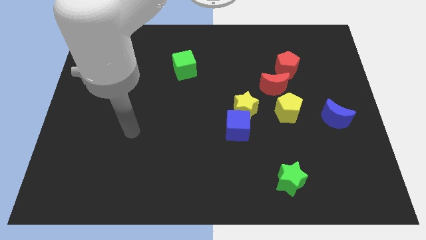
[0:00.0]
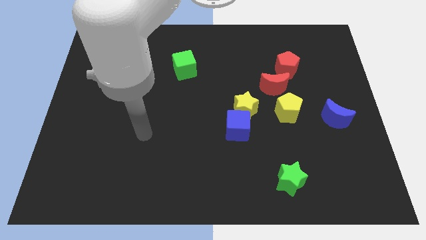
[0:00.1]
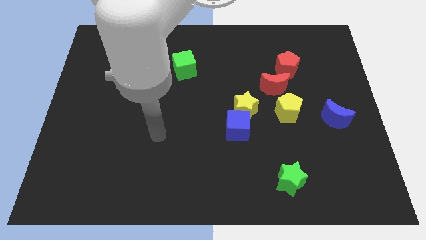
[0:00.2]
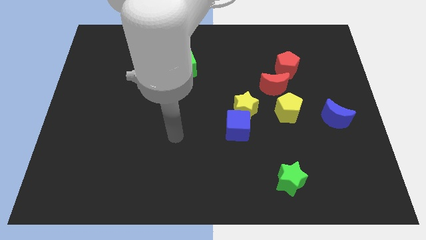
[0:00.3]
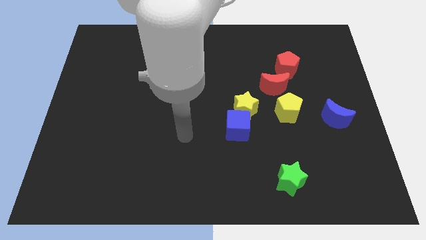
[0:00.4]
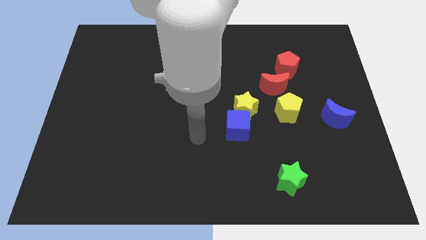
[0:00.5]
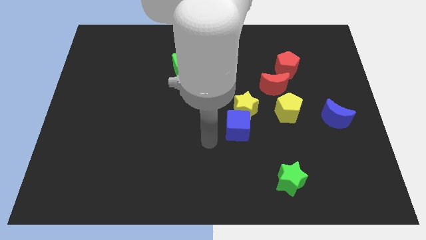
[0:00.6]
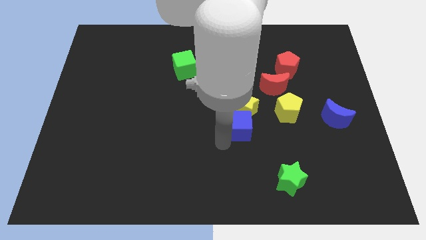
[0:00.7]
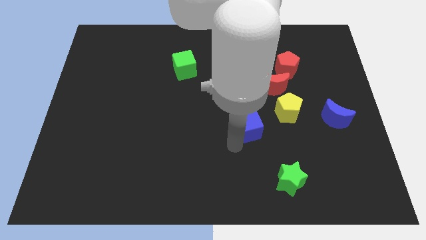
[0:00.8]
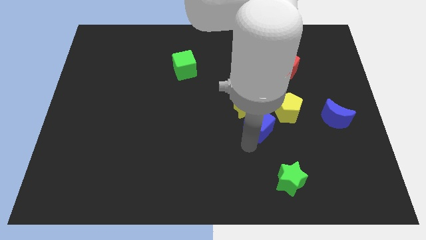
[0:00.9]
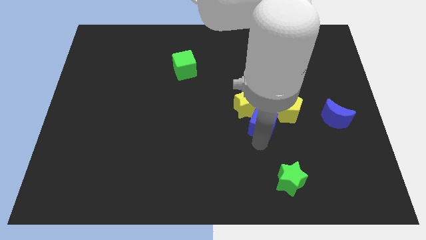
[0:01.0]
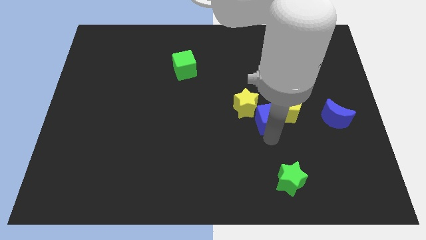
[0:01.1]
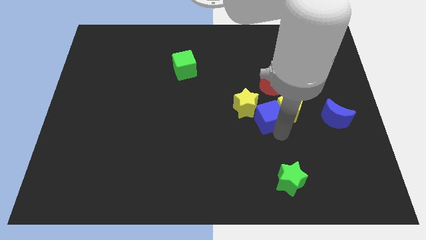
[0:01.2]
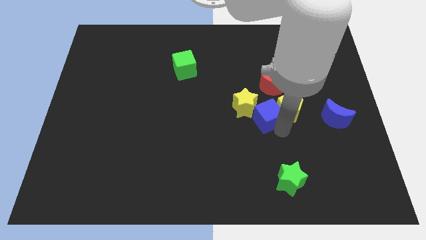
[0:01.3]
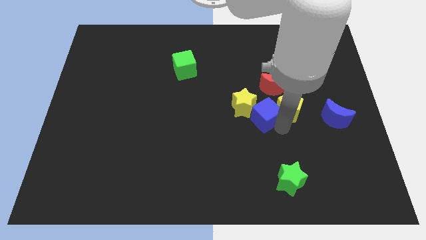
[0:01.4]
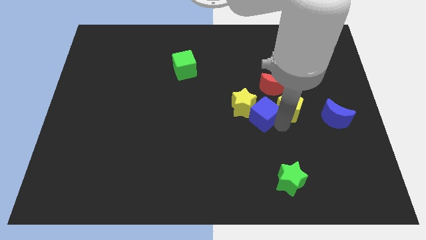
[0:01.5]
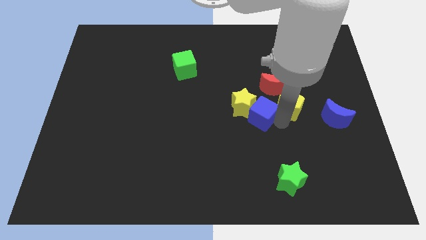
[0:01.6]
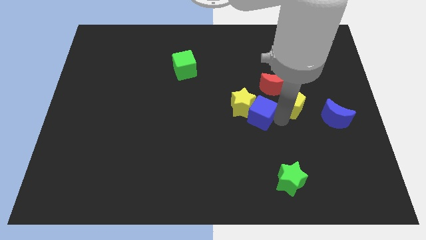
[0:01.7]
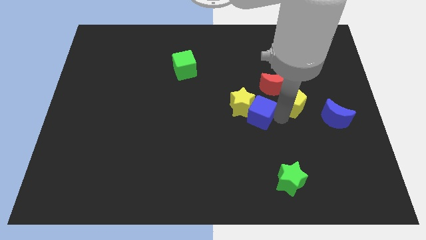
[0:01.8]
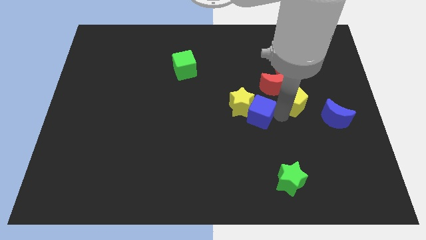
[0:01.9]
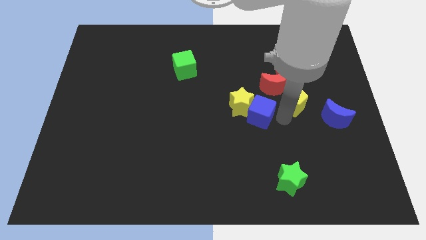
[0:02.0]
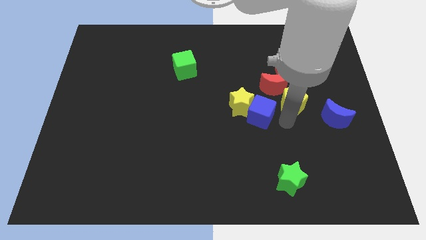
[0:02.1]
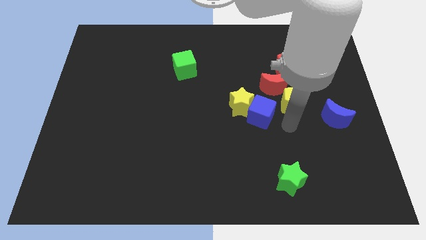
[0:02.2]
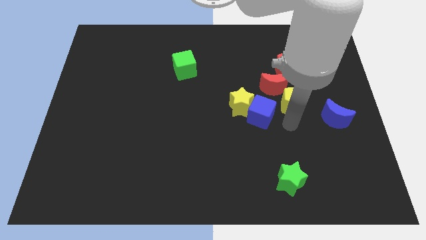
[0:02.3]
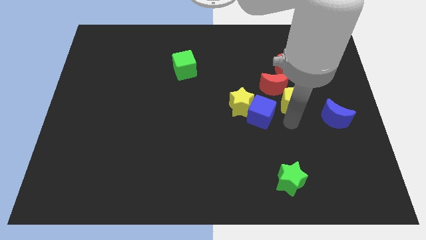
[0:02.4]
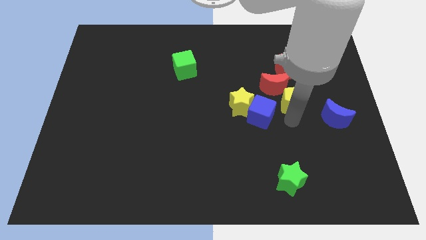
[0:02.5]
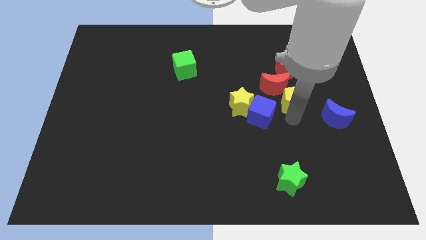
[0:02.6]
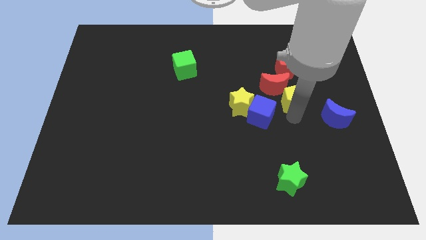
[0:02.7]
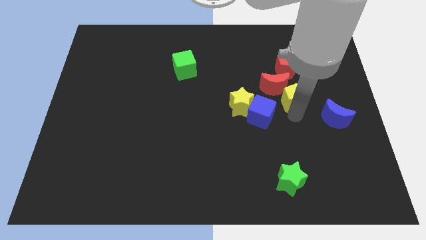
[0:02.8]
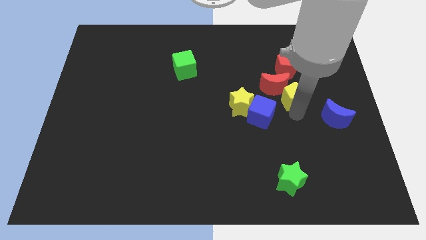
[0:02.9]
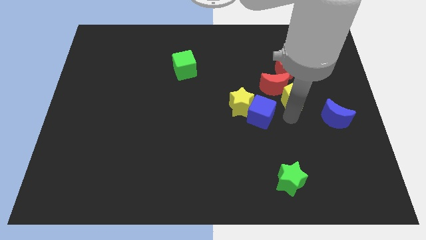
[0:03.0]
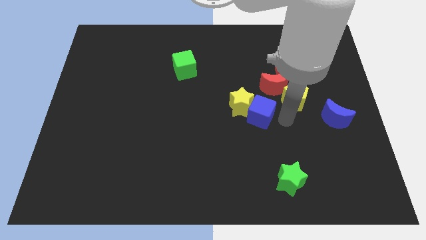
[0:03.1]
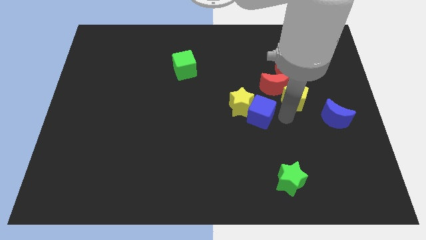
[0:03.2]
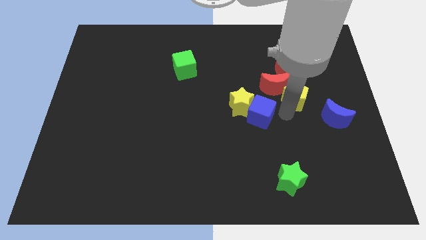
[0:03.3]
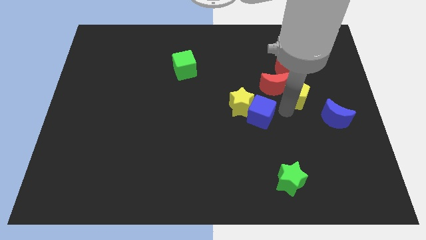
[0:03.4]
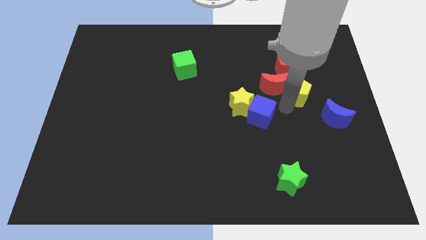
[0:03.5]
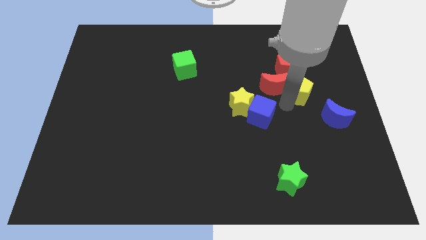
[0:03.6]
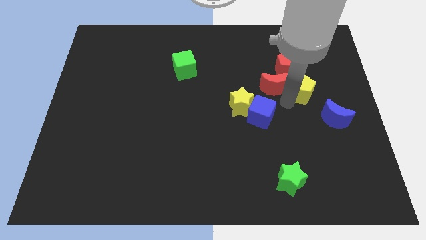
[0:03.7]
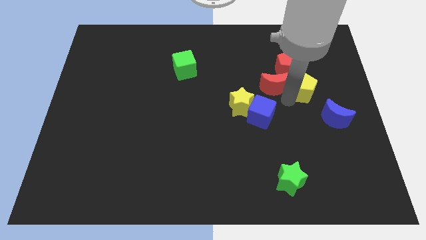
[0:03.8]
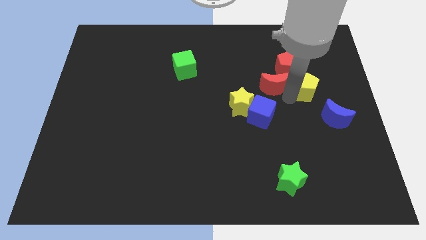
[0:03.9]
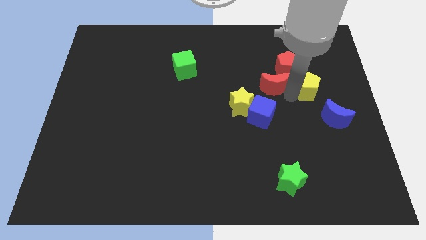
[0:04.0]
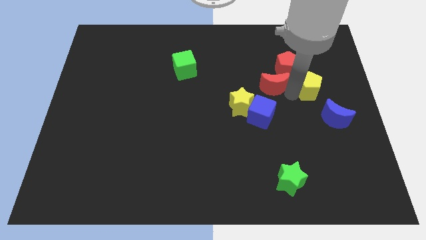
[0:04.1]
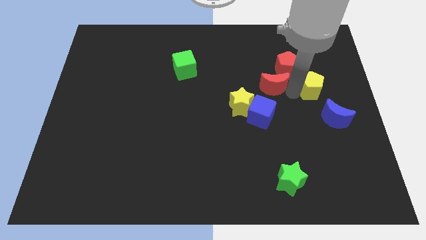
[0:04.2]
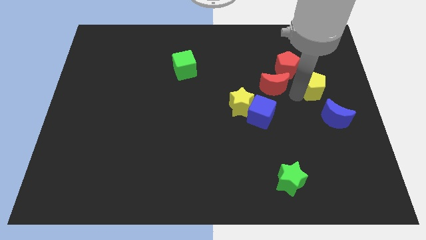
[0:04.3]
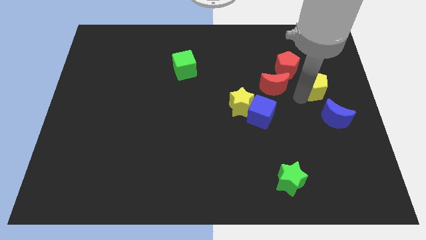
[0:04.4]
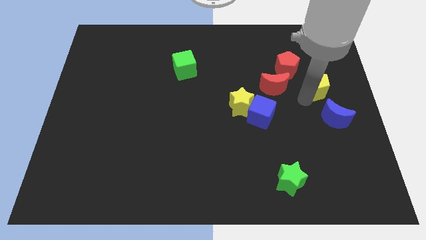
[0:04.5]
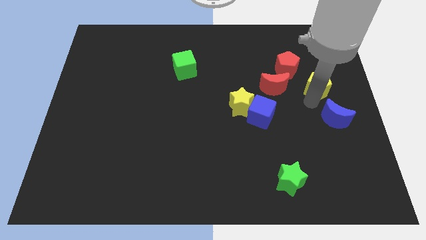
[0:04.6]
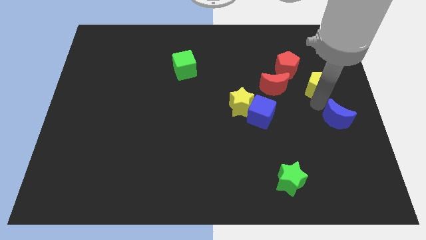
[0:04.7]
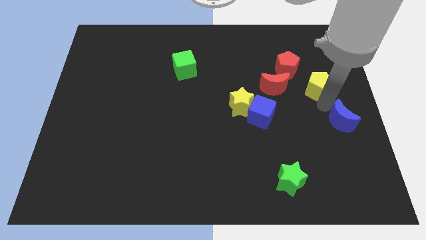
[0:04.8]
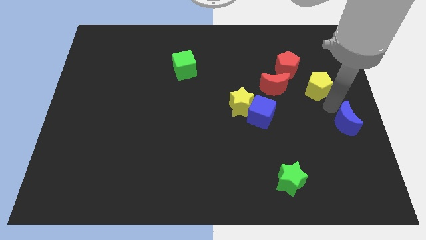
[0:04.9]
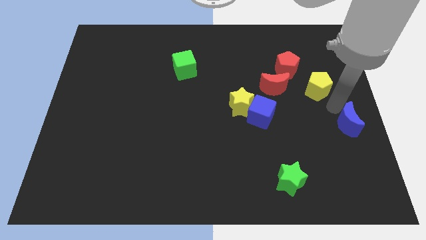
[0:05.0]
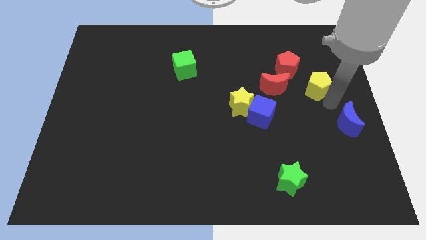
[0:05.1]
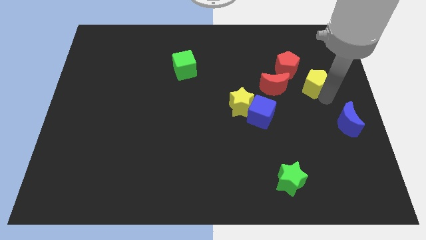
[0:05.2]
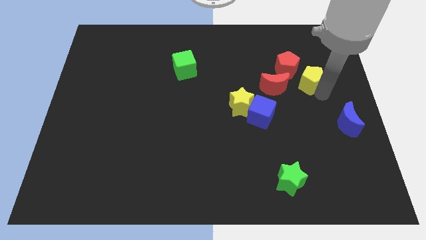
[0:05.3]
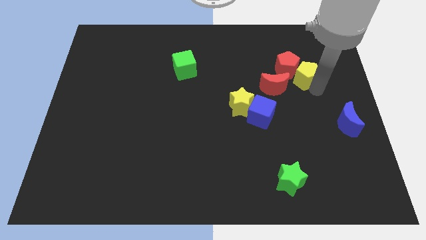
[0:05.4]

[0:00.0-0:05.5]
put the yellow pentagon to the top right of the red moon

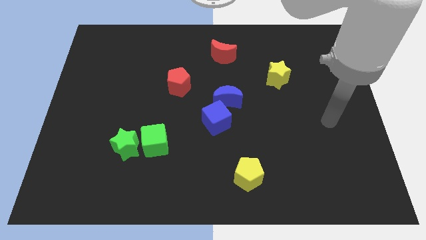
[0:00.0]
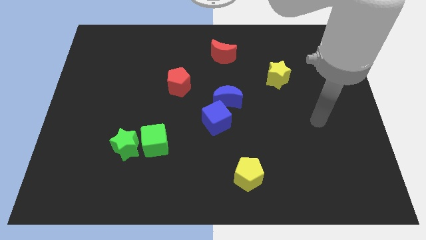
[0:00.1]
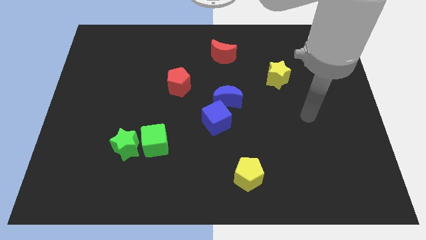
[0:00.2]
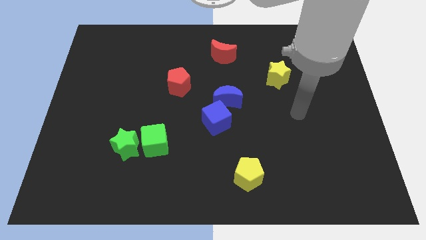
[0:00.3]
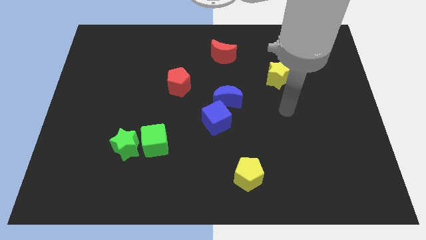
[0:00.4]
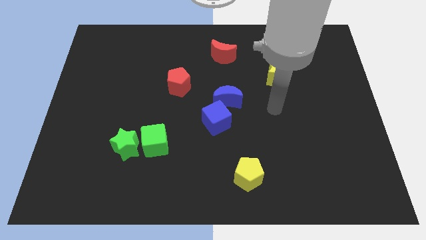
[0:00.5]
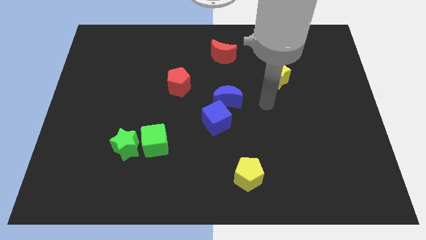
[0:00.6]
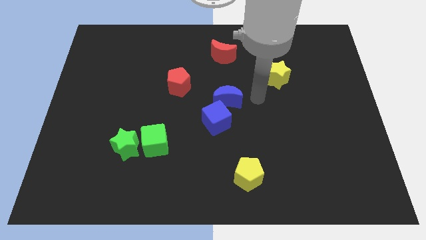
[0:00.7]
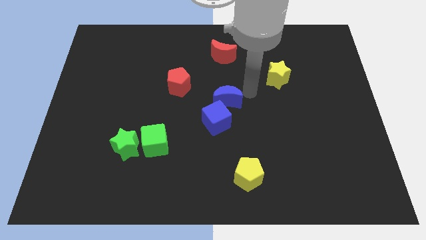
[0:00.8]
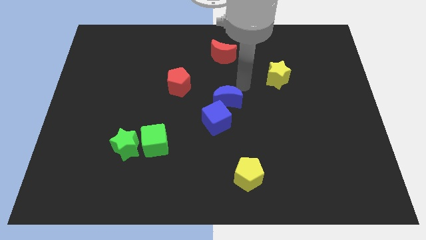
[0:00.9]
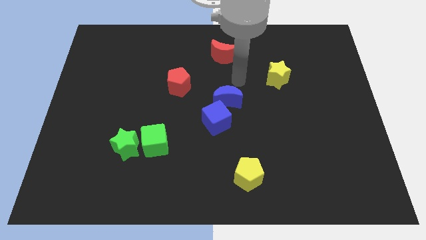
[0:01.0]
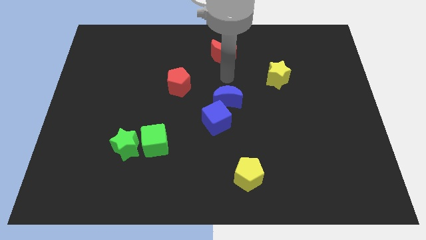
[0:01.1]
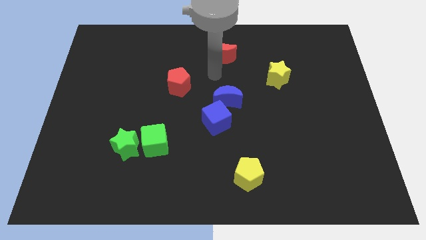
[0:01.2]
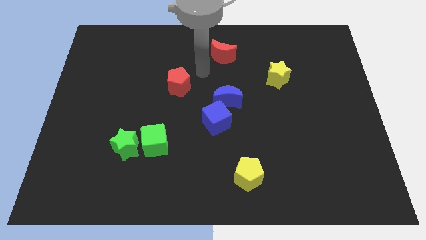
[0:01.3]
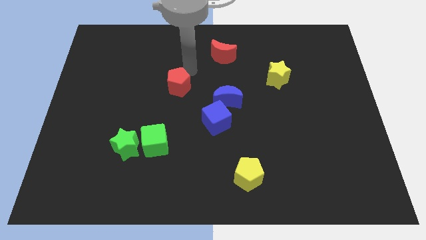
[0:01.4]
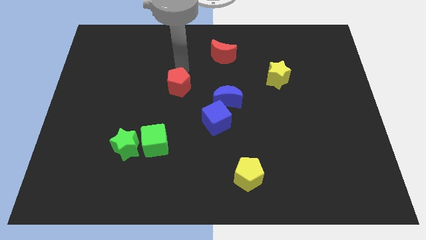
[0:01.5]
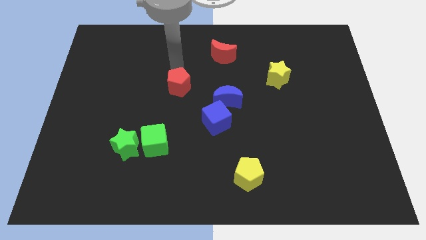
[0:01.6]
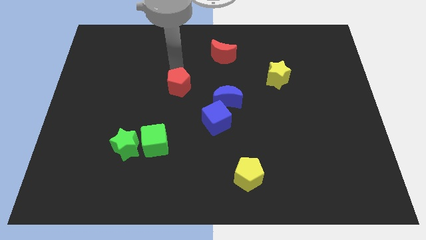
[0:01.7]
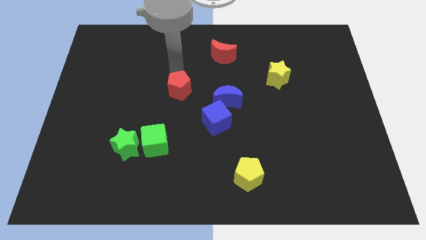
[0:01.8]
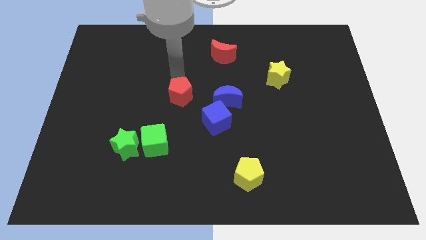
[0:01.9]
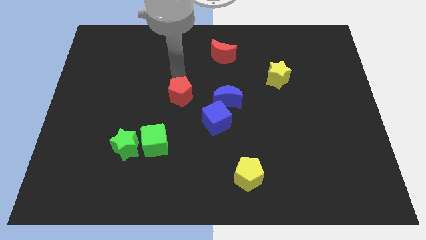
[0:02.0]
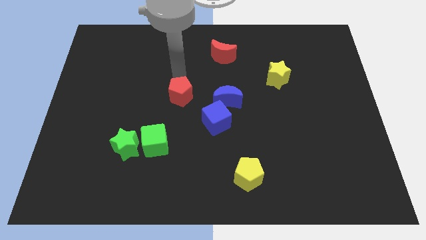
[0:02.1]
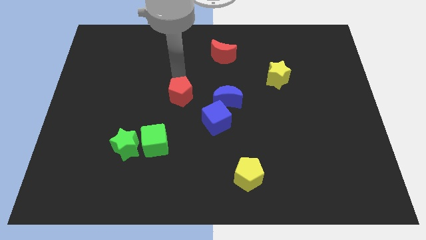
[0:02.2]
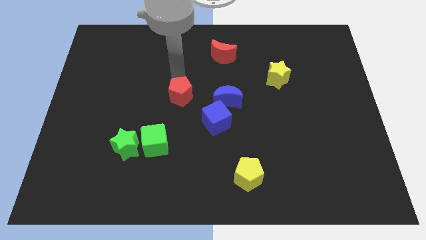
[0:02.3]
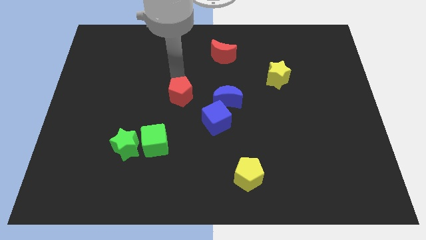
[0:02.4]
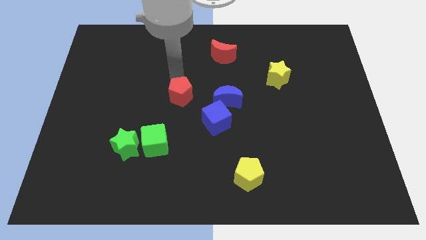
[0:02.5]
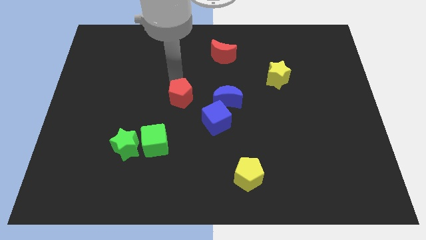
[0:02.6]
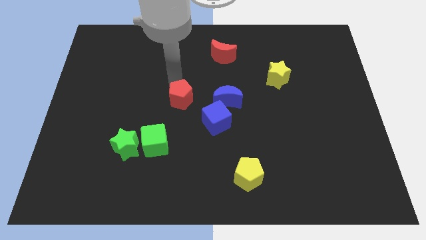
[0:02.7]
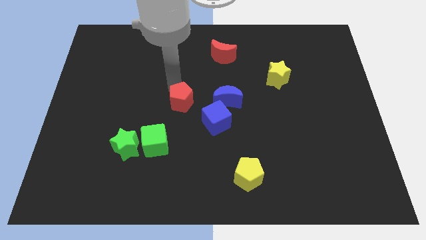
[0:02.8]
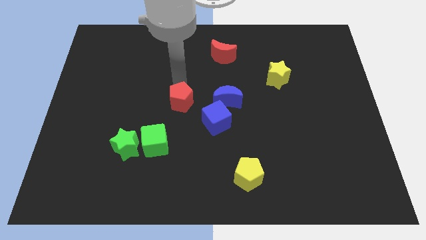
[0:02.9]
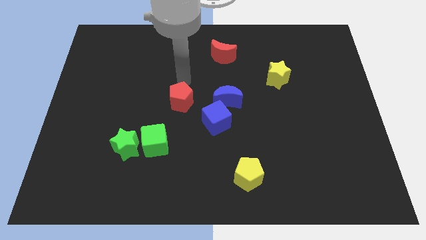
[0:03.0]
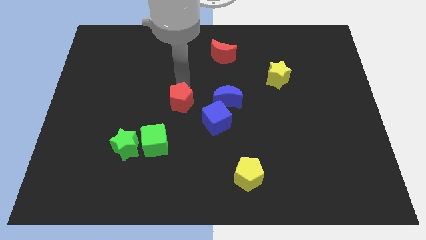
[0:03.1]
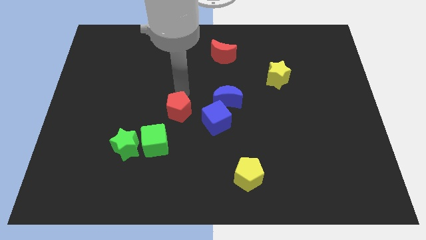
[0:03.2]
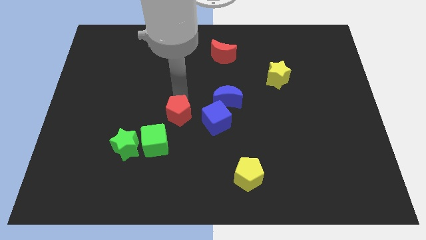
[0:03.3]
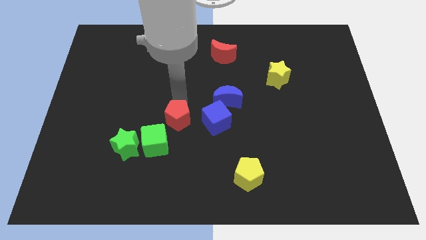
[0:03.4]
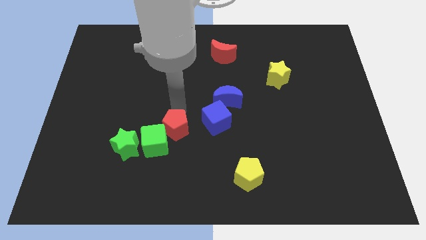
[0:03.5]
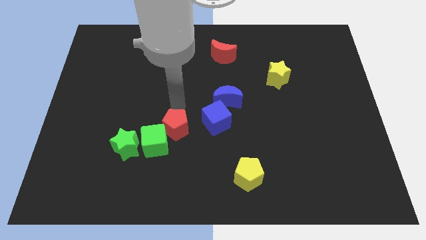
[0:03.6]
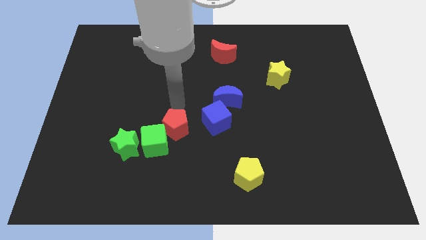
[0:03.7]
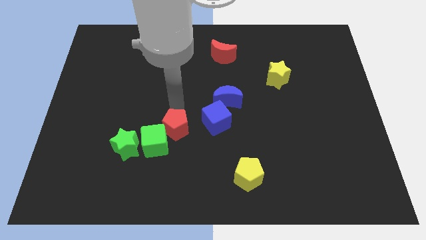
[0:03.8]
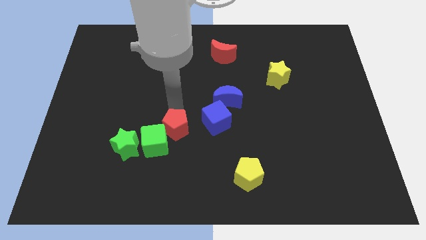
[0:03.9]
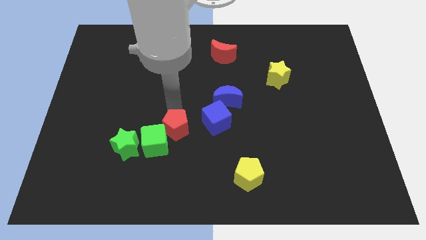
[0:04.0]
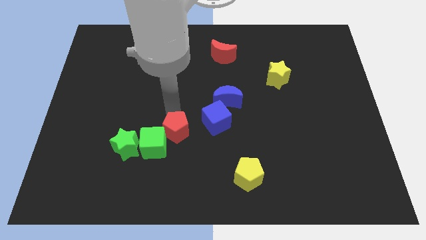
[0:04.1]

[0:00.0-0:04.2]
move the red pentagon to the right side of the green star
